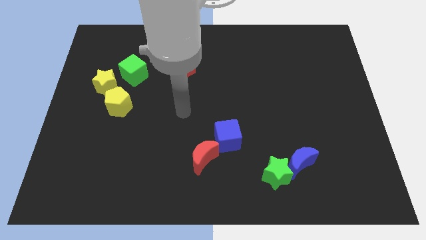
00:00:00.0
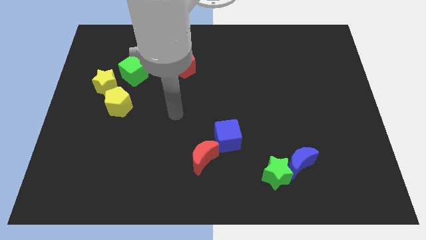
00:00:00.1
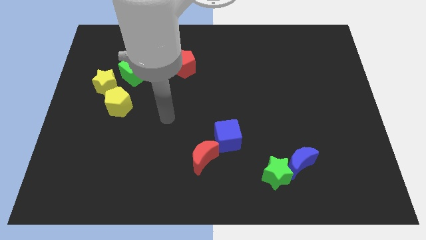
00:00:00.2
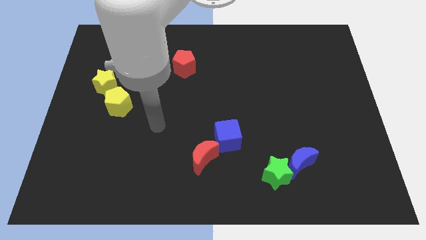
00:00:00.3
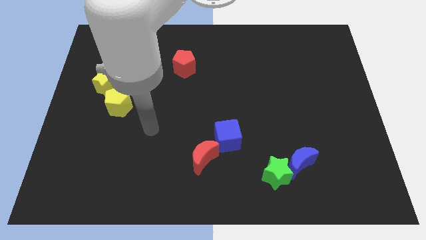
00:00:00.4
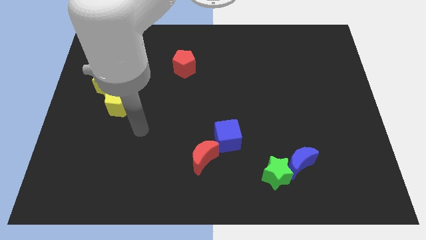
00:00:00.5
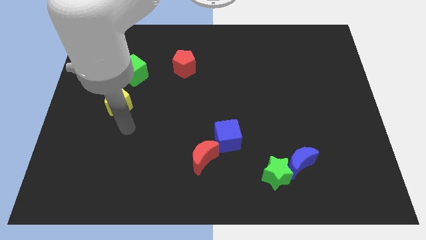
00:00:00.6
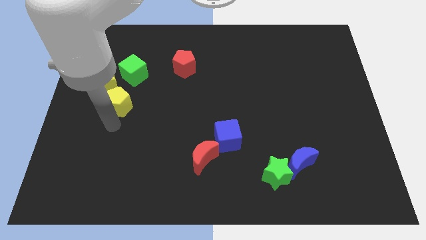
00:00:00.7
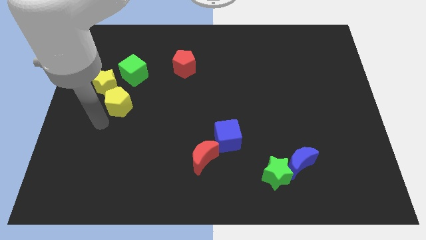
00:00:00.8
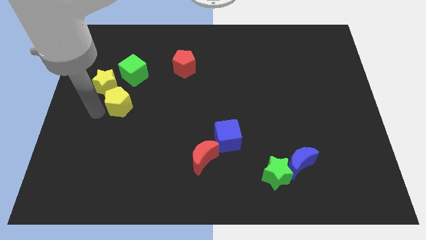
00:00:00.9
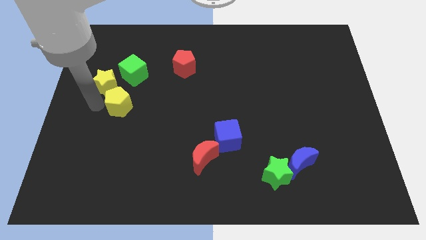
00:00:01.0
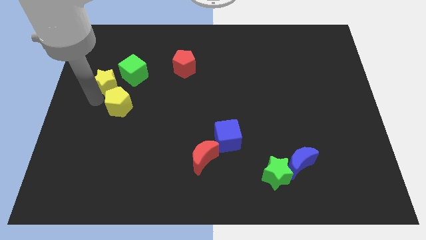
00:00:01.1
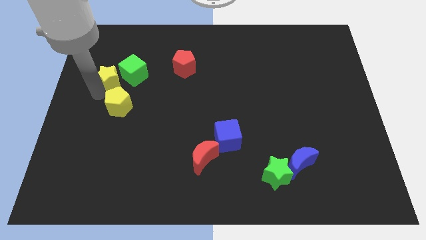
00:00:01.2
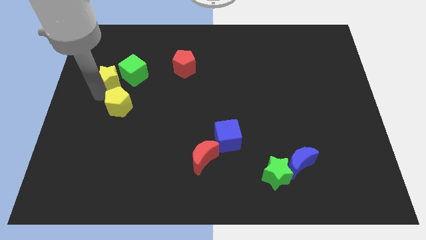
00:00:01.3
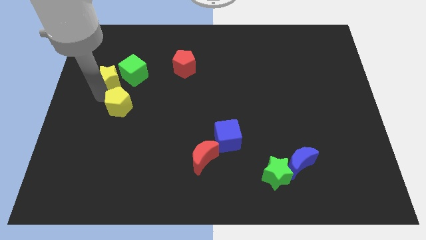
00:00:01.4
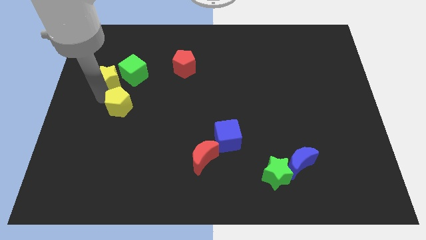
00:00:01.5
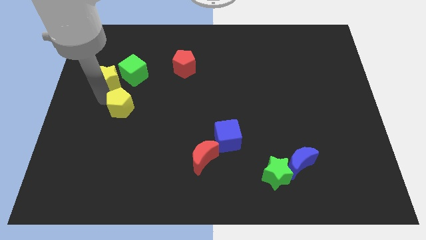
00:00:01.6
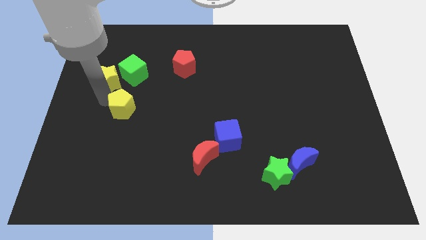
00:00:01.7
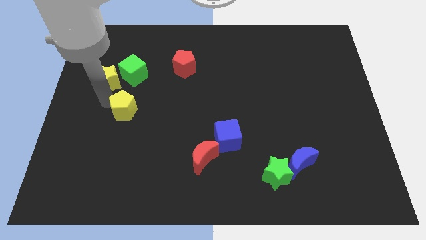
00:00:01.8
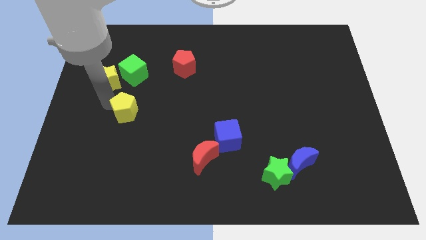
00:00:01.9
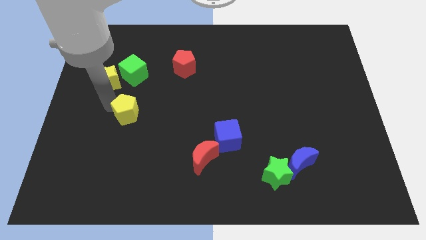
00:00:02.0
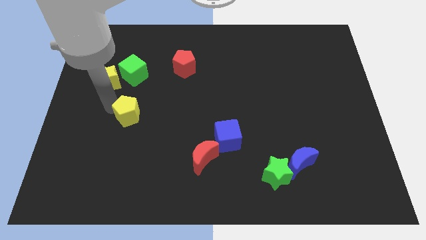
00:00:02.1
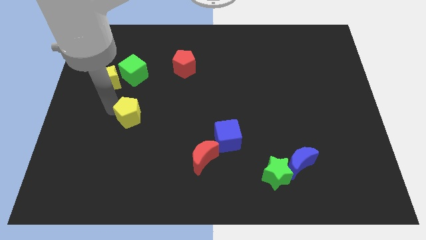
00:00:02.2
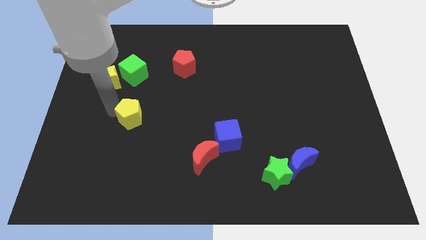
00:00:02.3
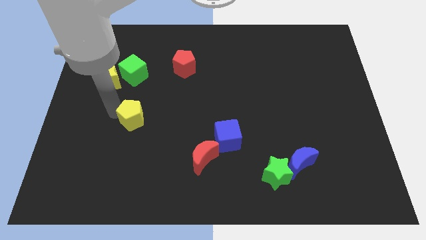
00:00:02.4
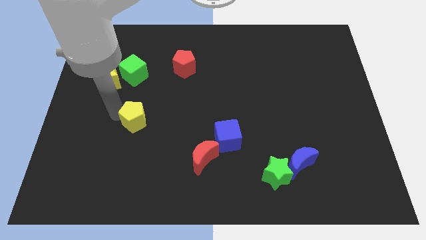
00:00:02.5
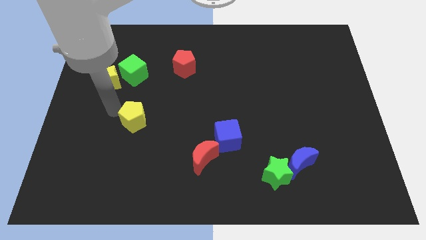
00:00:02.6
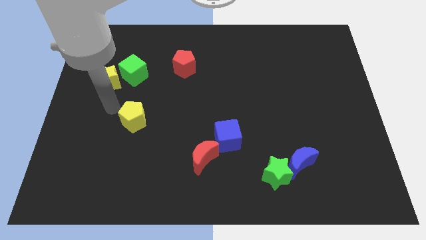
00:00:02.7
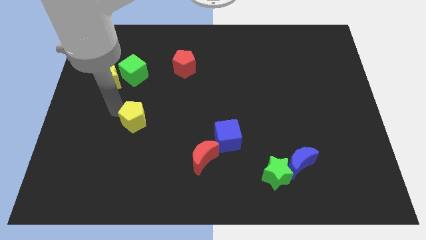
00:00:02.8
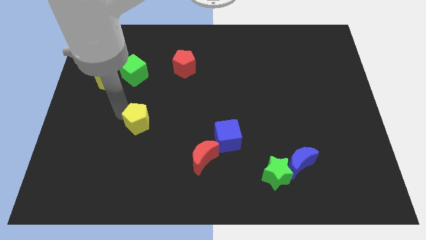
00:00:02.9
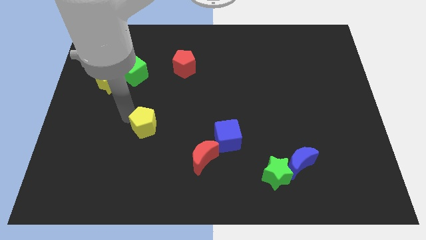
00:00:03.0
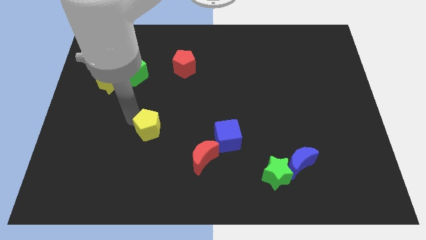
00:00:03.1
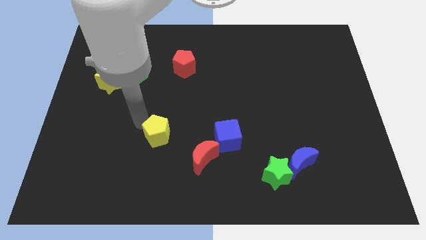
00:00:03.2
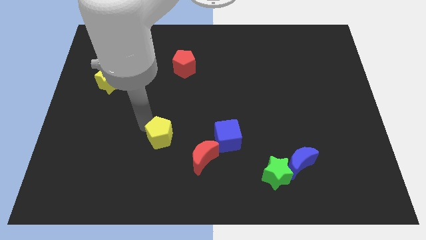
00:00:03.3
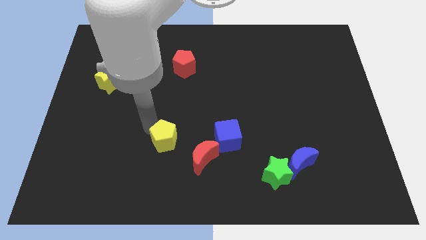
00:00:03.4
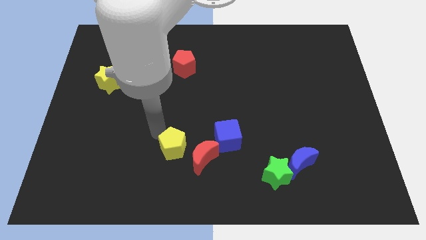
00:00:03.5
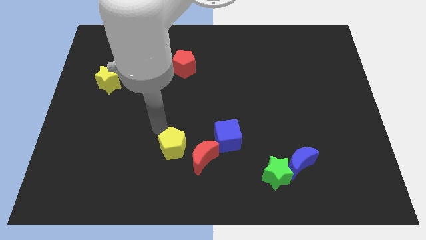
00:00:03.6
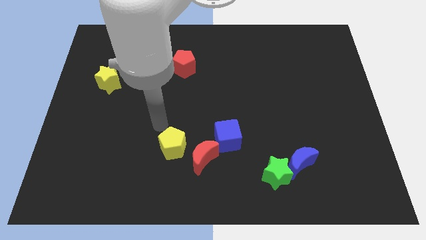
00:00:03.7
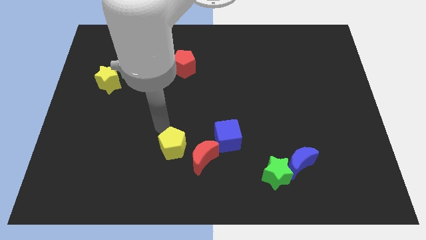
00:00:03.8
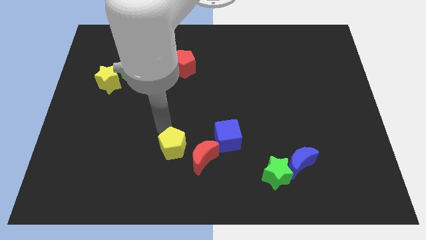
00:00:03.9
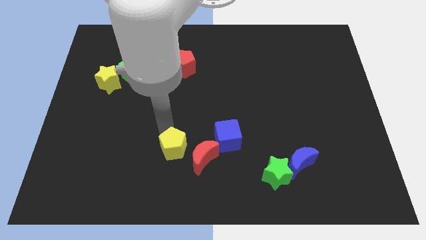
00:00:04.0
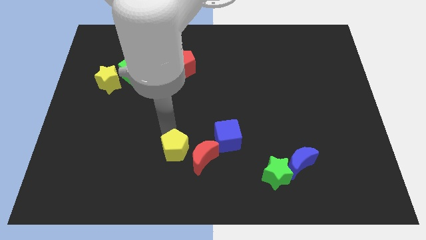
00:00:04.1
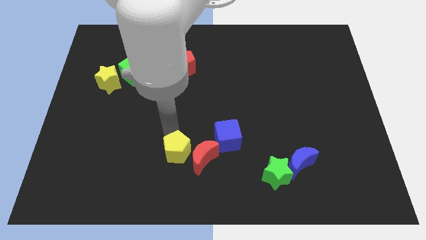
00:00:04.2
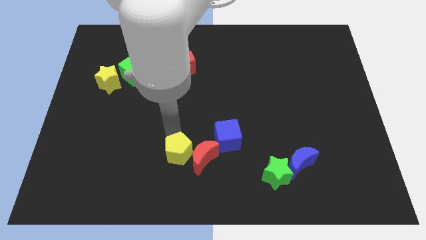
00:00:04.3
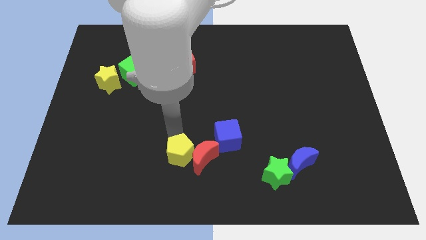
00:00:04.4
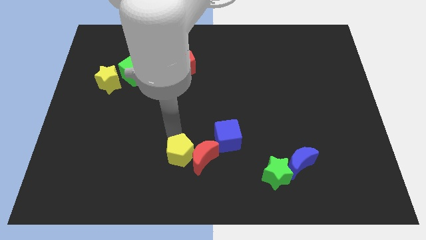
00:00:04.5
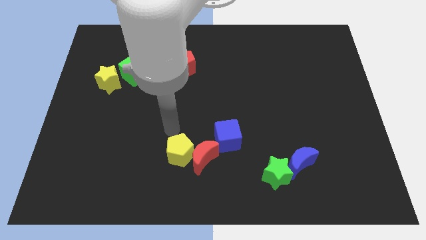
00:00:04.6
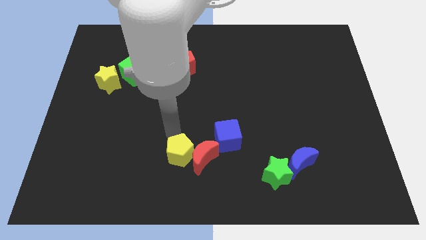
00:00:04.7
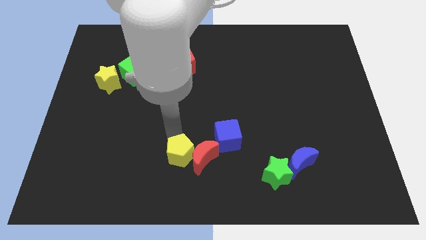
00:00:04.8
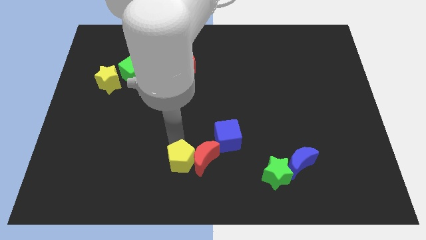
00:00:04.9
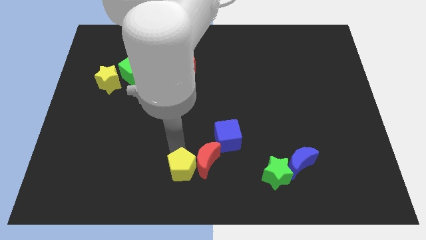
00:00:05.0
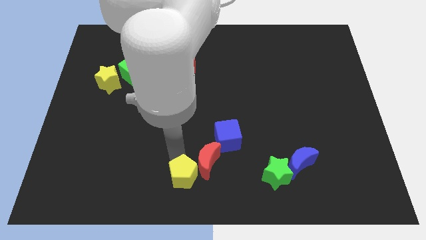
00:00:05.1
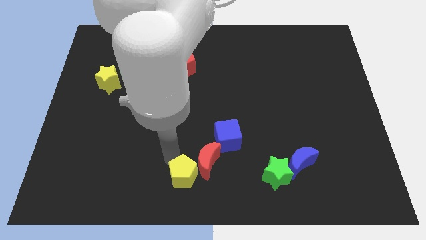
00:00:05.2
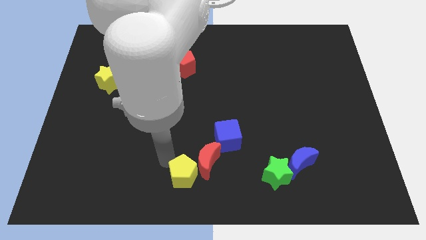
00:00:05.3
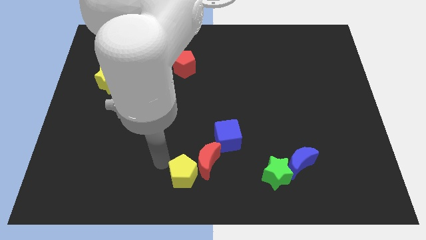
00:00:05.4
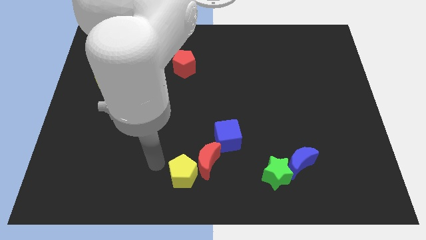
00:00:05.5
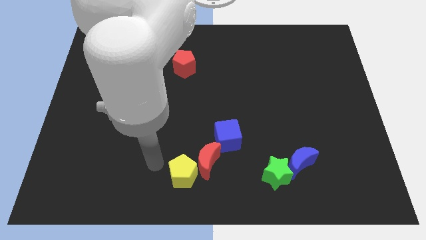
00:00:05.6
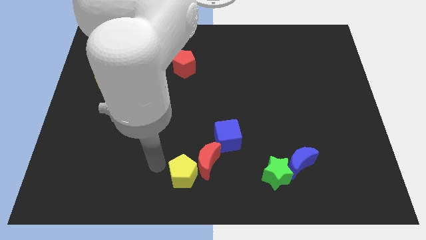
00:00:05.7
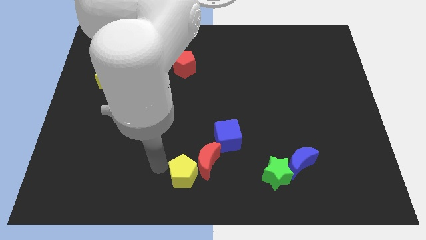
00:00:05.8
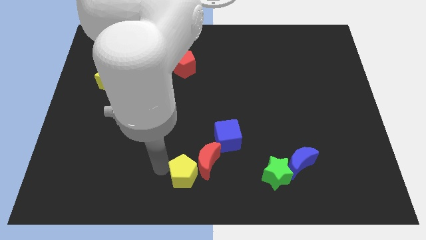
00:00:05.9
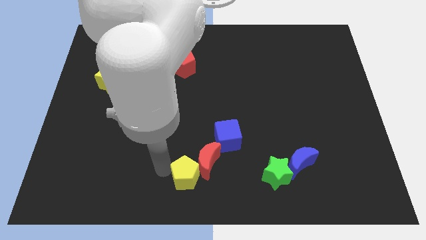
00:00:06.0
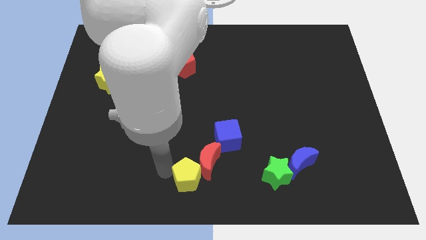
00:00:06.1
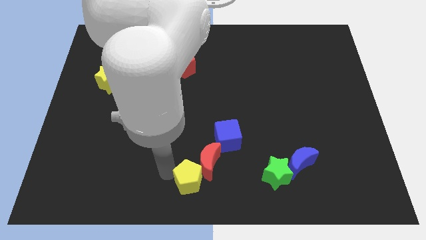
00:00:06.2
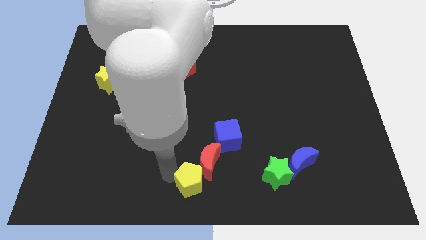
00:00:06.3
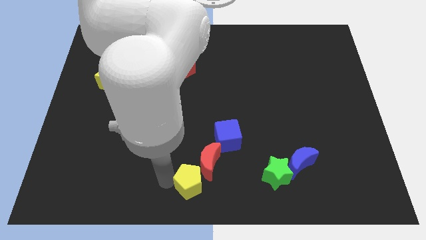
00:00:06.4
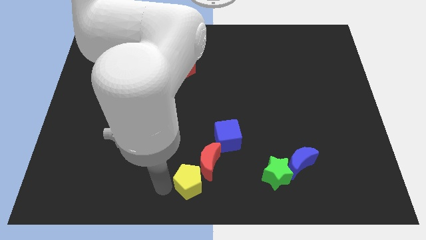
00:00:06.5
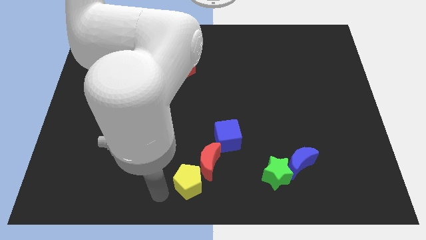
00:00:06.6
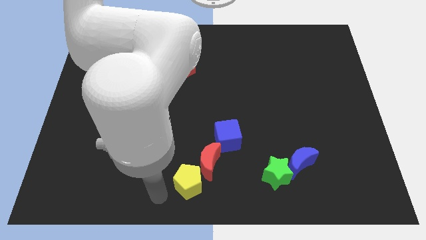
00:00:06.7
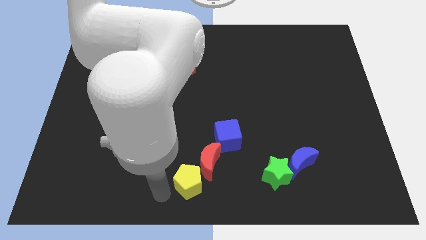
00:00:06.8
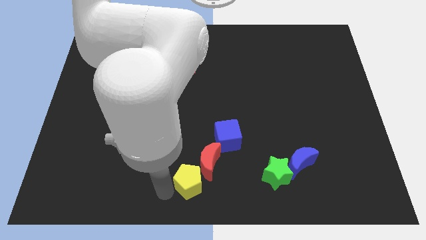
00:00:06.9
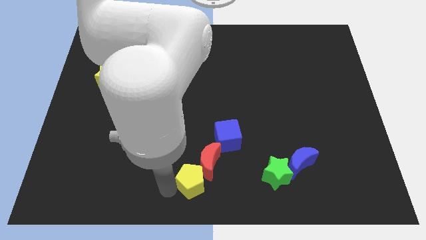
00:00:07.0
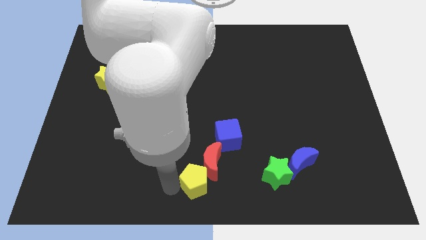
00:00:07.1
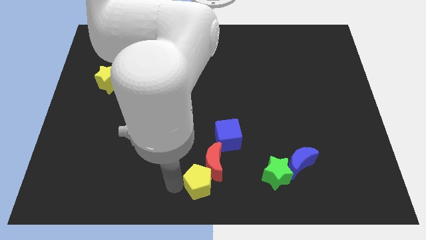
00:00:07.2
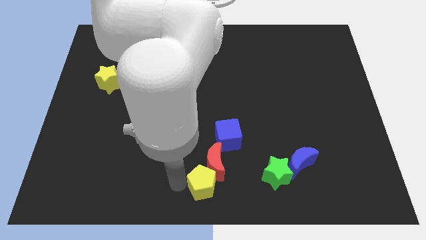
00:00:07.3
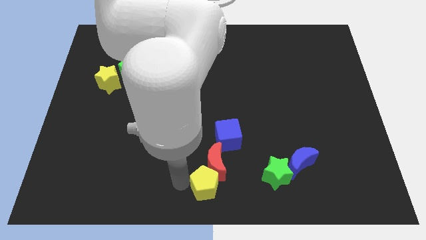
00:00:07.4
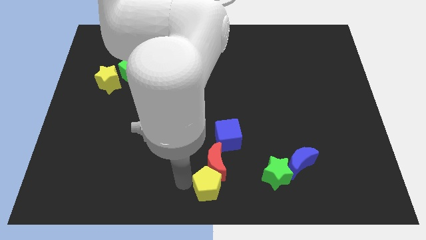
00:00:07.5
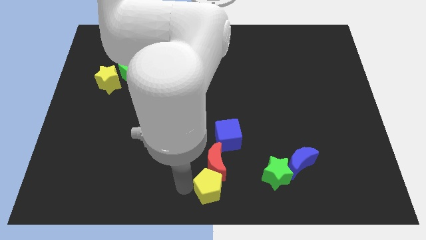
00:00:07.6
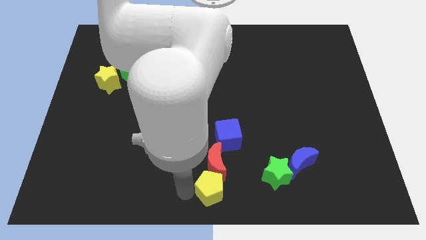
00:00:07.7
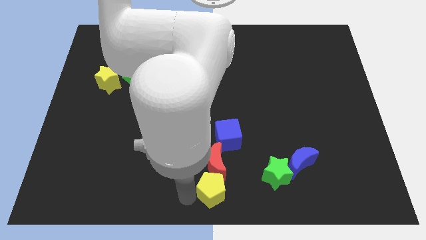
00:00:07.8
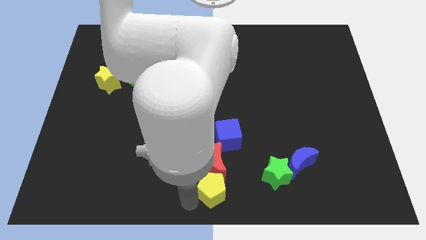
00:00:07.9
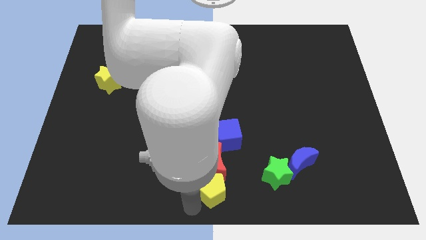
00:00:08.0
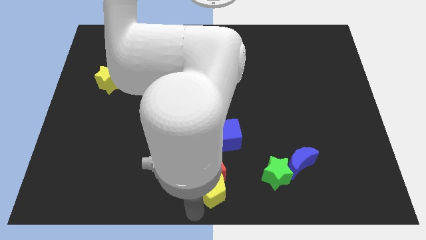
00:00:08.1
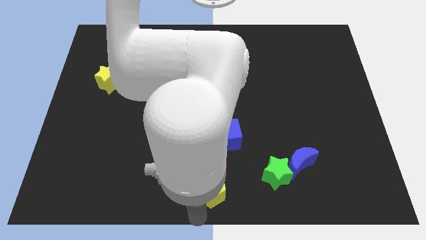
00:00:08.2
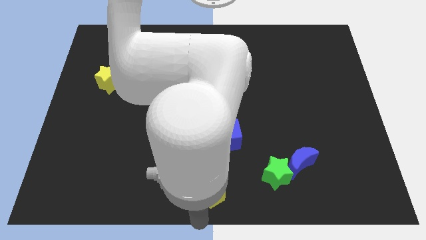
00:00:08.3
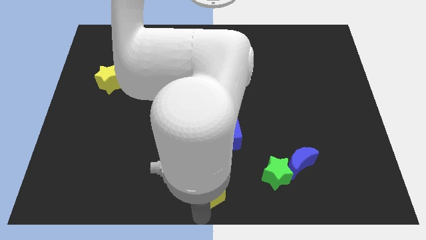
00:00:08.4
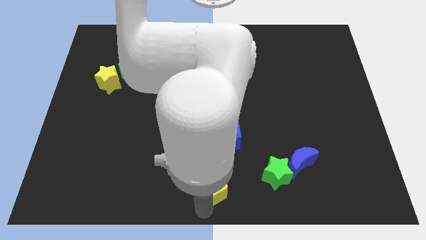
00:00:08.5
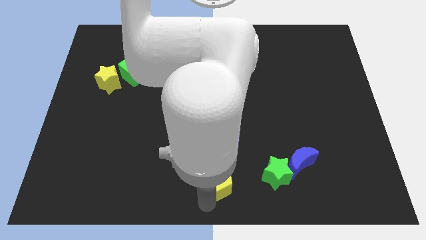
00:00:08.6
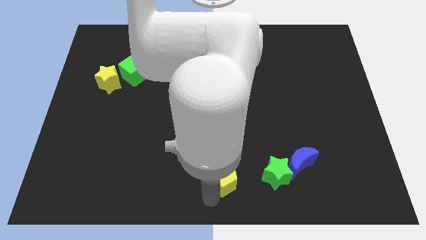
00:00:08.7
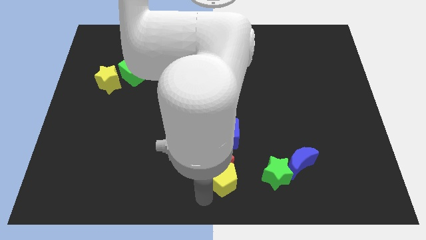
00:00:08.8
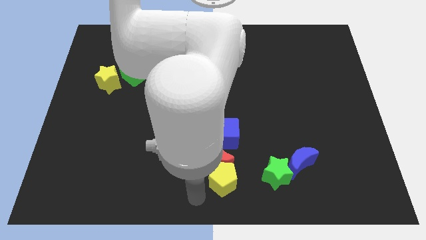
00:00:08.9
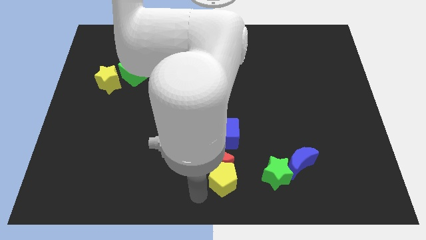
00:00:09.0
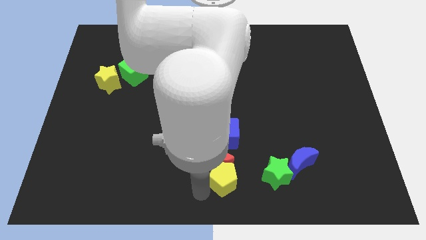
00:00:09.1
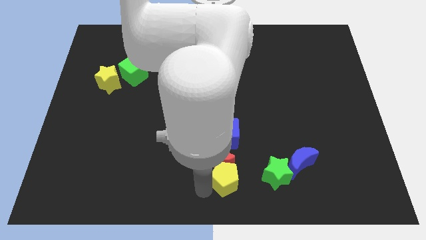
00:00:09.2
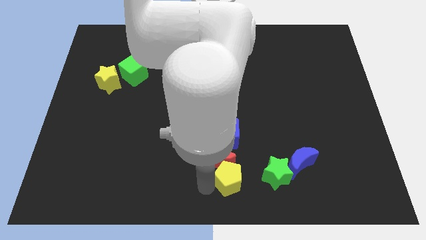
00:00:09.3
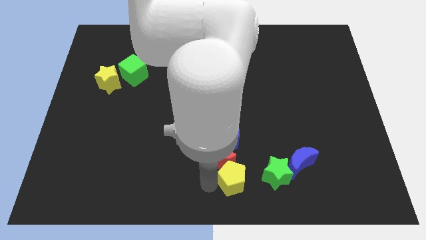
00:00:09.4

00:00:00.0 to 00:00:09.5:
move the yellow pentagon just left of the blue moon
